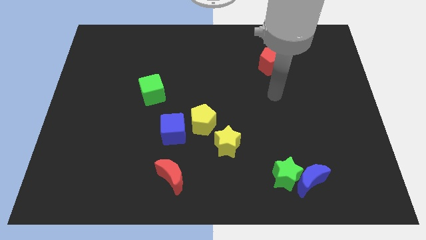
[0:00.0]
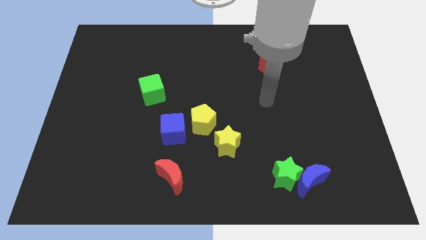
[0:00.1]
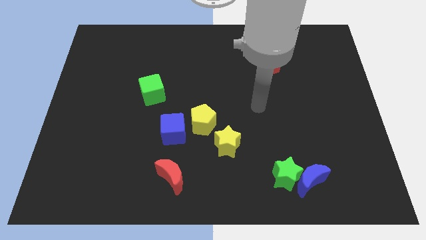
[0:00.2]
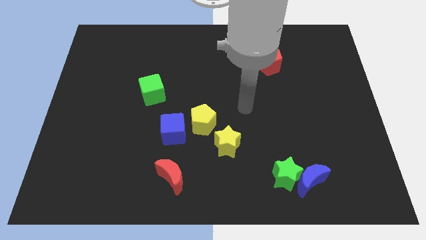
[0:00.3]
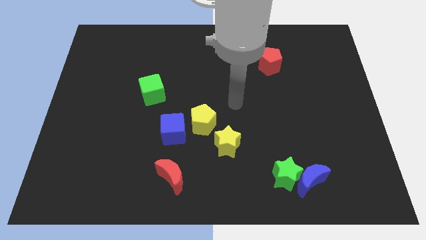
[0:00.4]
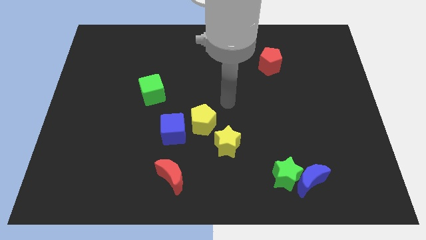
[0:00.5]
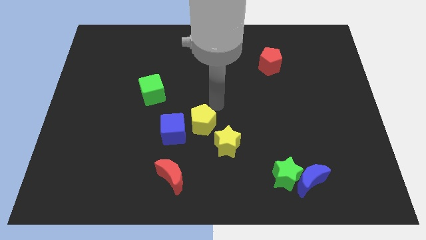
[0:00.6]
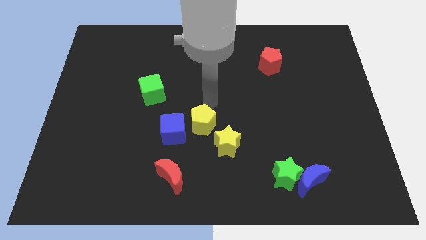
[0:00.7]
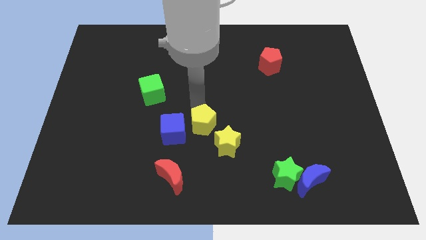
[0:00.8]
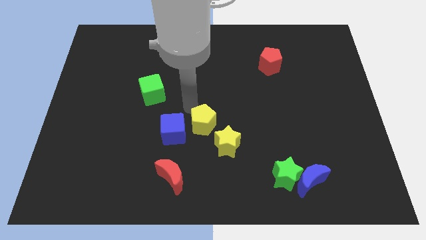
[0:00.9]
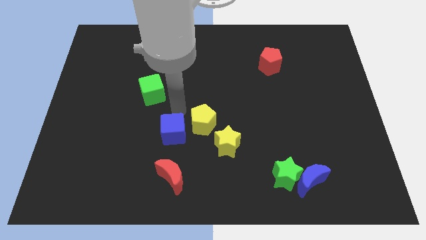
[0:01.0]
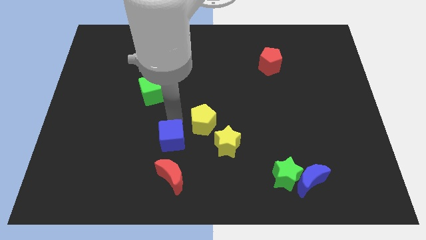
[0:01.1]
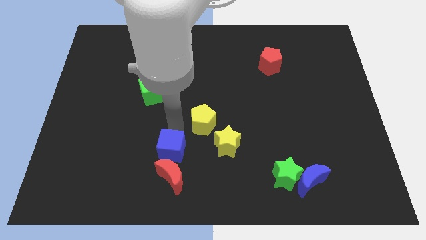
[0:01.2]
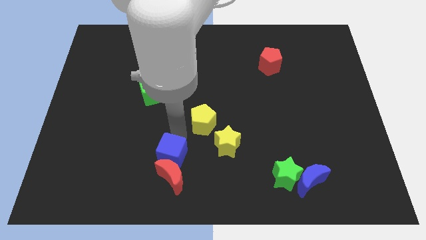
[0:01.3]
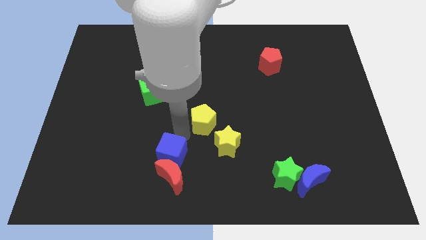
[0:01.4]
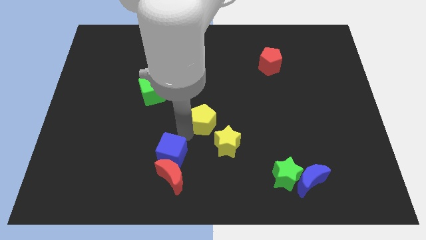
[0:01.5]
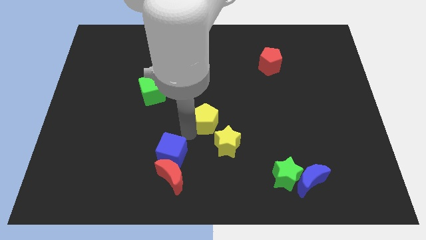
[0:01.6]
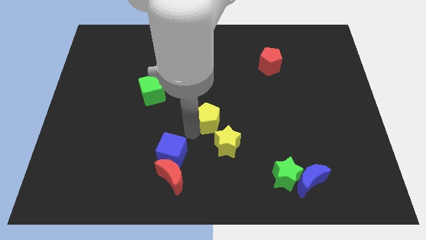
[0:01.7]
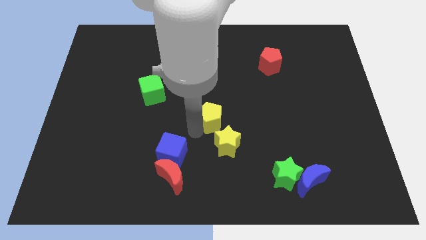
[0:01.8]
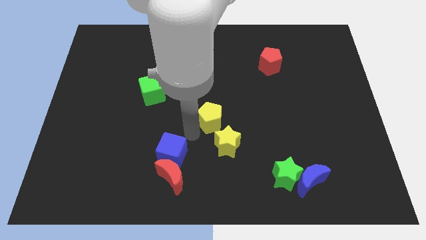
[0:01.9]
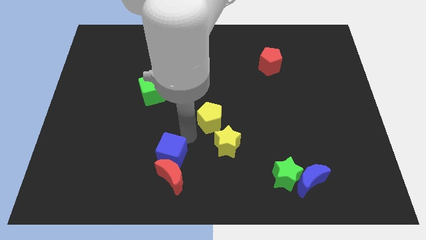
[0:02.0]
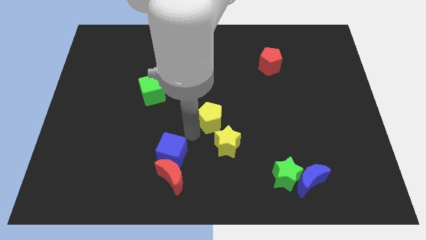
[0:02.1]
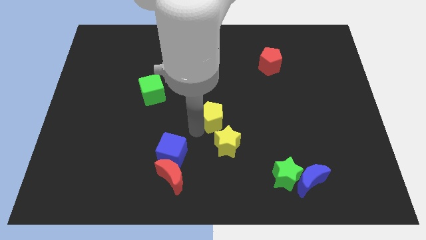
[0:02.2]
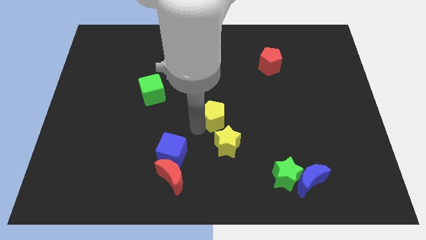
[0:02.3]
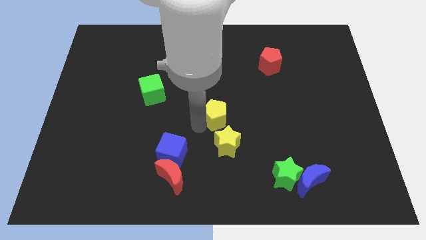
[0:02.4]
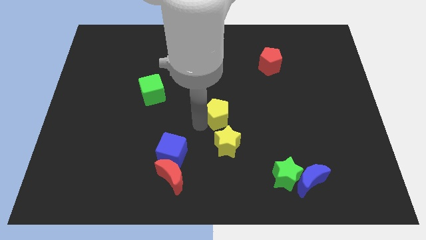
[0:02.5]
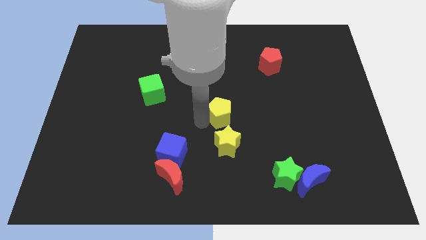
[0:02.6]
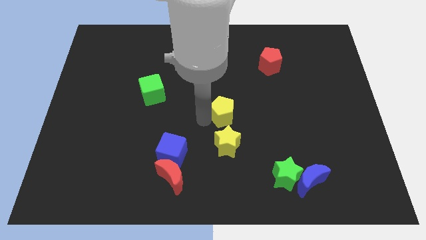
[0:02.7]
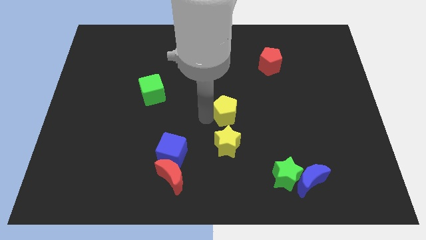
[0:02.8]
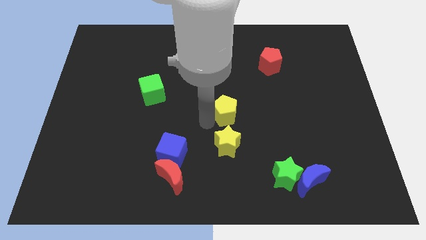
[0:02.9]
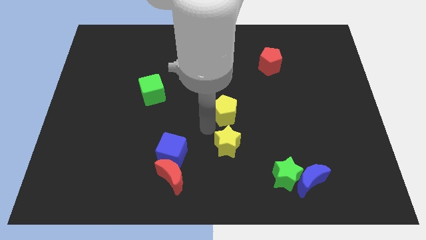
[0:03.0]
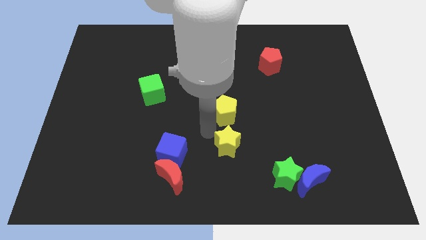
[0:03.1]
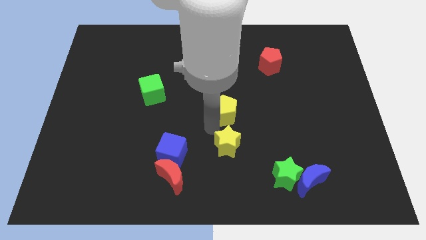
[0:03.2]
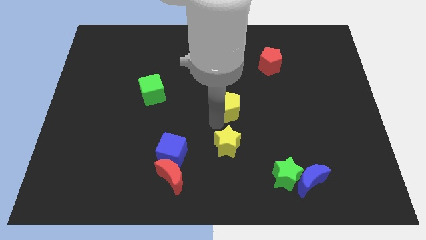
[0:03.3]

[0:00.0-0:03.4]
slide the yellow pentagon a bit upwards and to the right diagonally

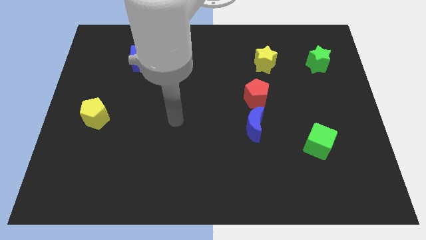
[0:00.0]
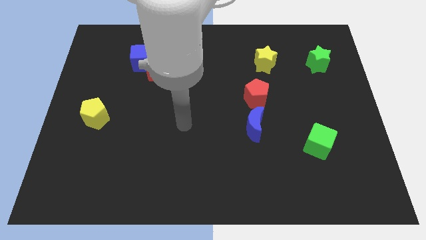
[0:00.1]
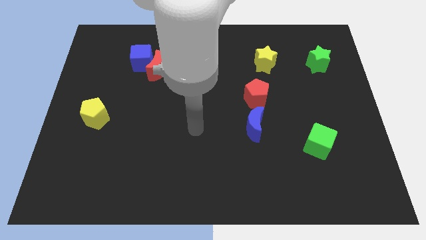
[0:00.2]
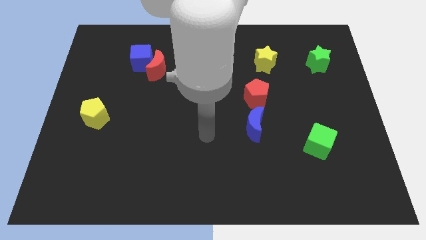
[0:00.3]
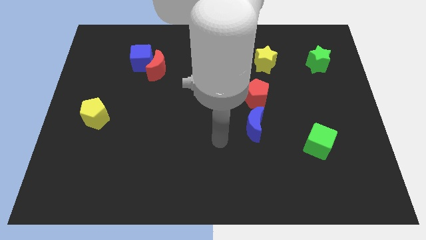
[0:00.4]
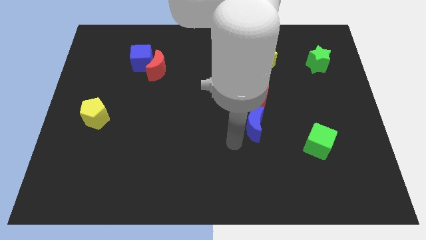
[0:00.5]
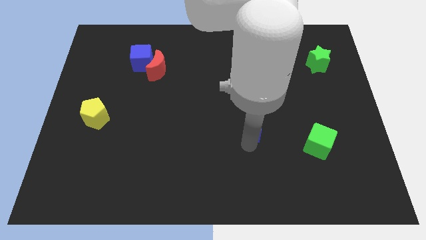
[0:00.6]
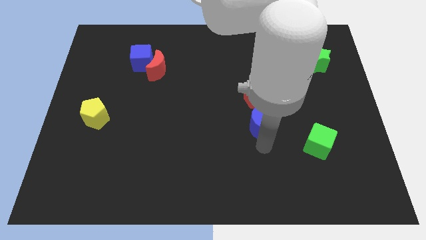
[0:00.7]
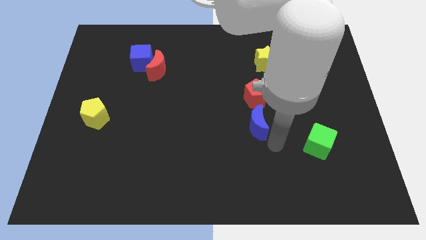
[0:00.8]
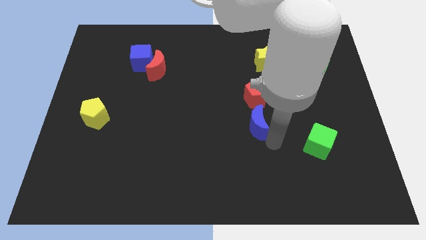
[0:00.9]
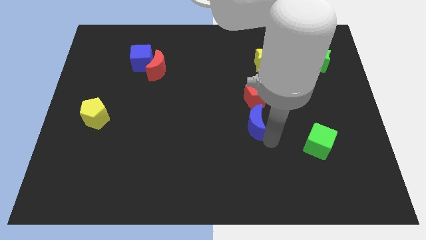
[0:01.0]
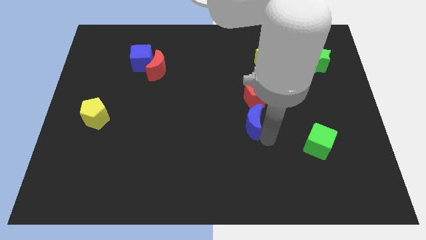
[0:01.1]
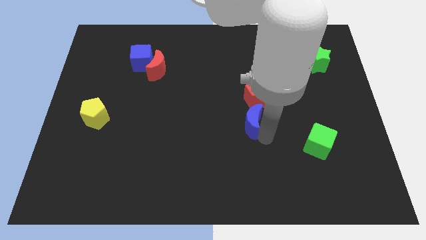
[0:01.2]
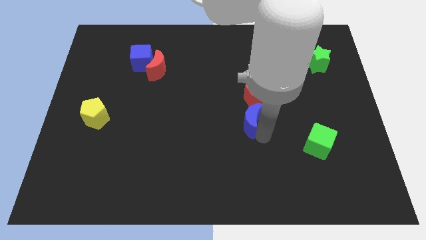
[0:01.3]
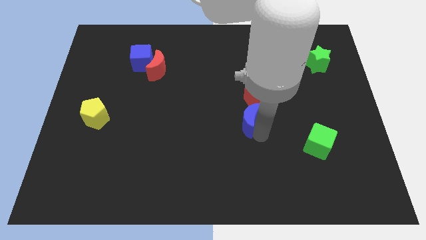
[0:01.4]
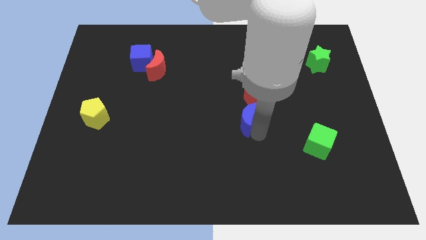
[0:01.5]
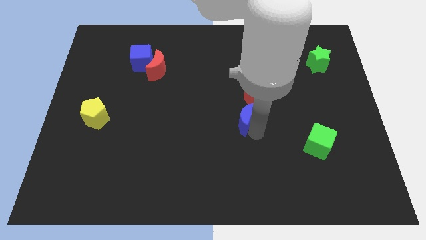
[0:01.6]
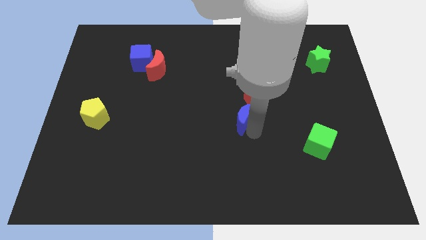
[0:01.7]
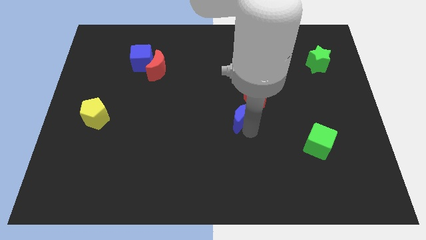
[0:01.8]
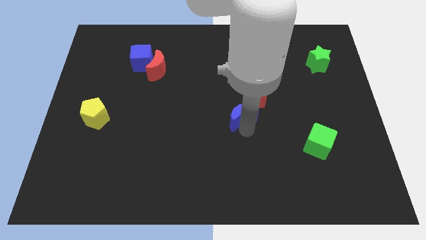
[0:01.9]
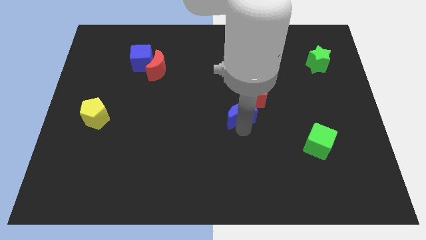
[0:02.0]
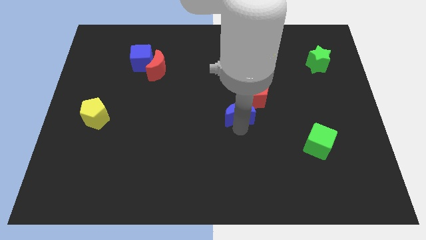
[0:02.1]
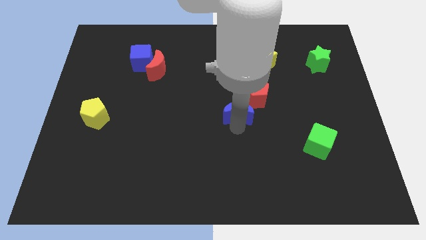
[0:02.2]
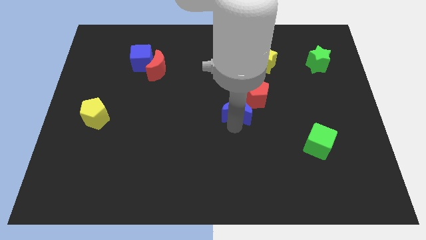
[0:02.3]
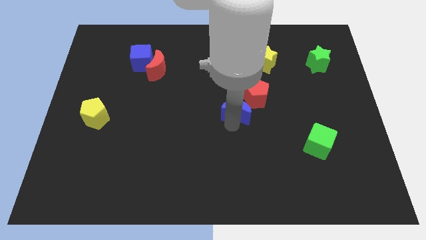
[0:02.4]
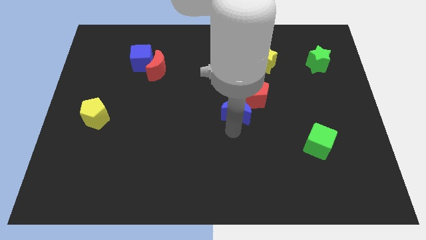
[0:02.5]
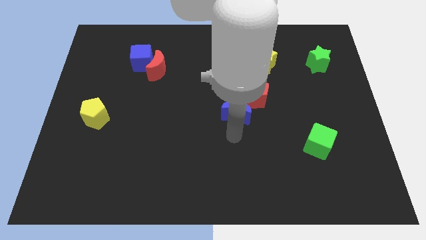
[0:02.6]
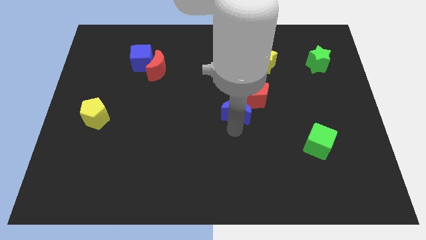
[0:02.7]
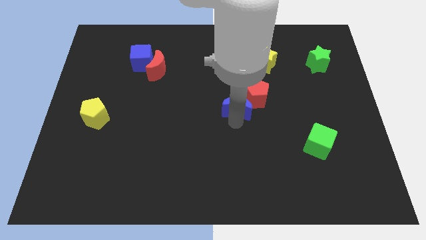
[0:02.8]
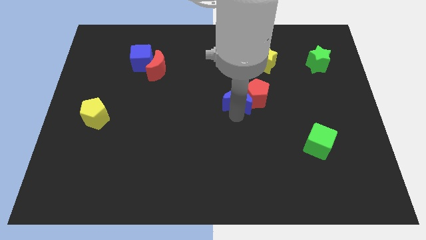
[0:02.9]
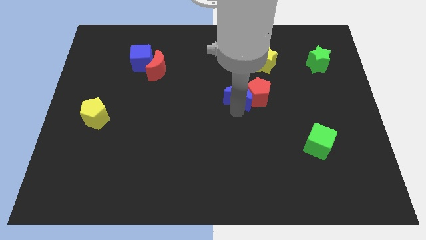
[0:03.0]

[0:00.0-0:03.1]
push the blue moon upwards a little

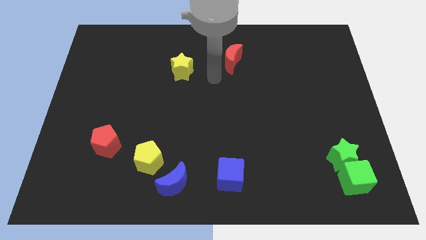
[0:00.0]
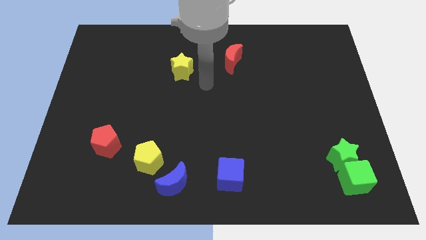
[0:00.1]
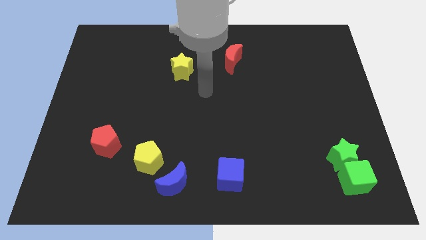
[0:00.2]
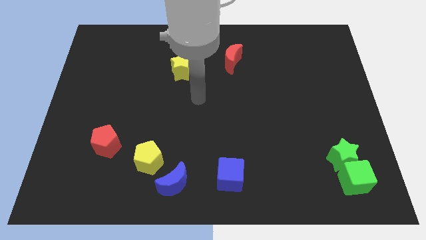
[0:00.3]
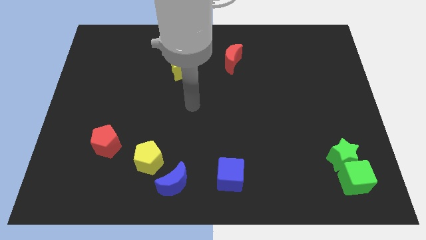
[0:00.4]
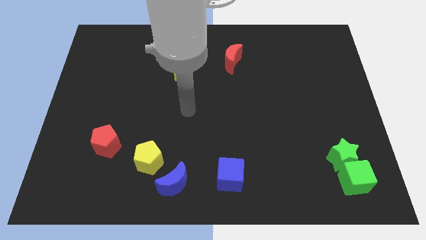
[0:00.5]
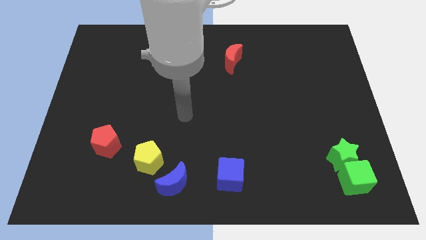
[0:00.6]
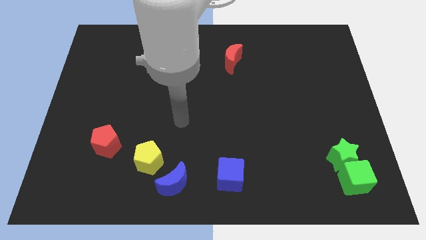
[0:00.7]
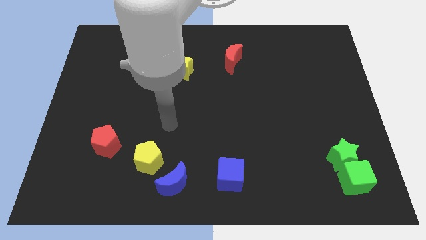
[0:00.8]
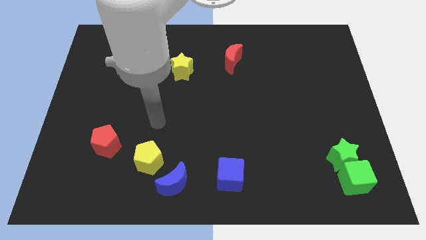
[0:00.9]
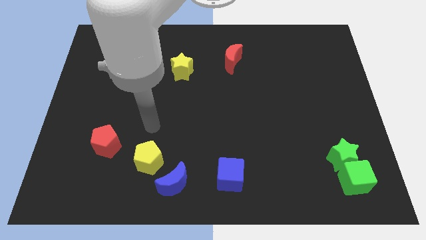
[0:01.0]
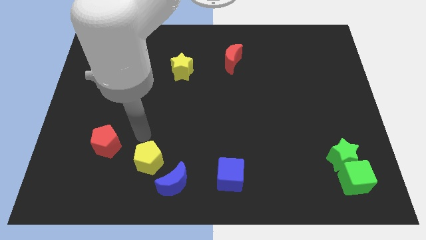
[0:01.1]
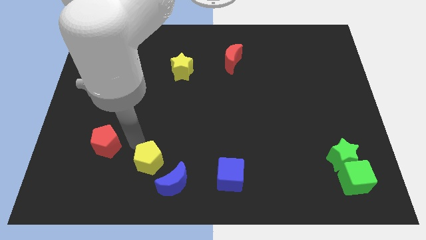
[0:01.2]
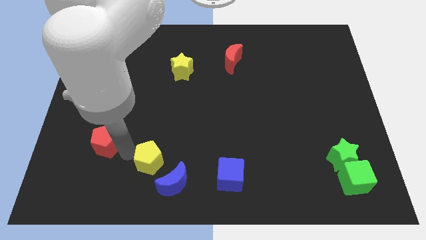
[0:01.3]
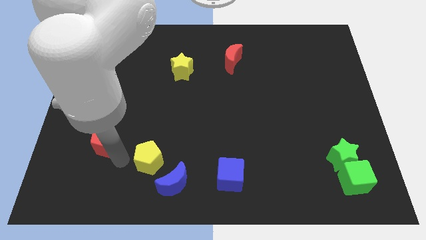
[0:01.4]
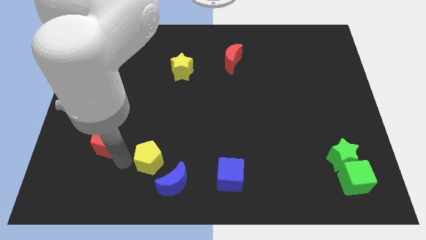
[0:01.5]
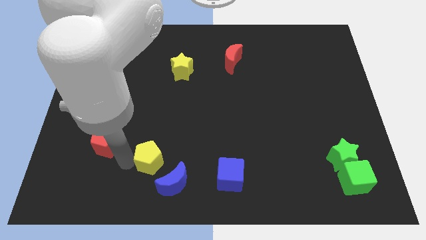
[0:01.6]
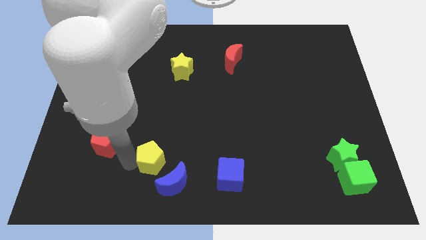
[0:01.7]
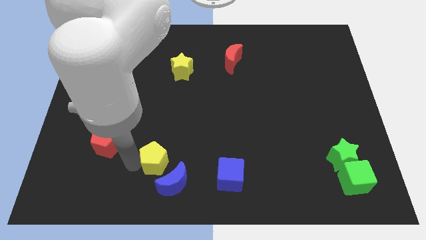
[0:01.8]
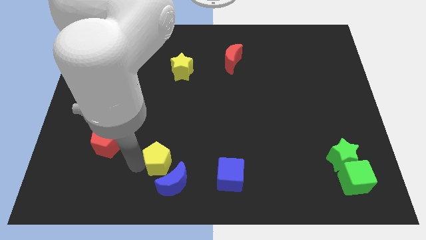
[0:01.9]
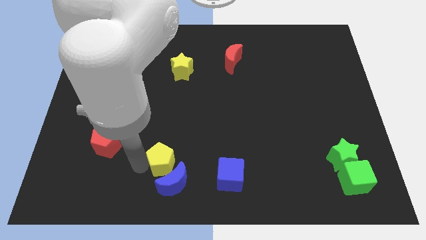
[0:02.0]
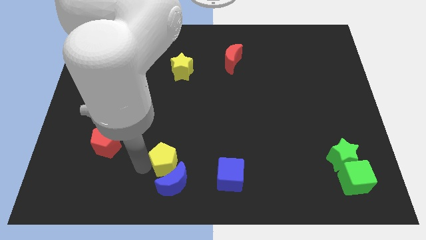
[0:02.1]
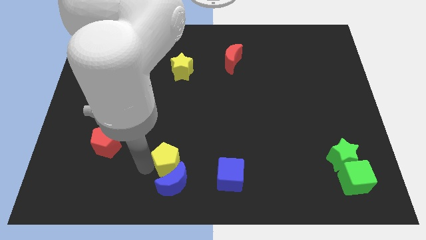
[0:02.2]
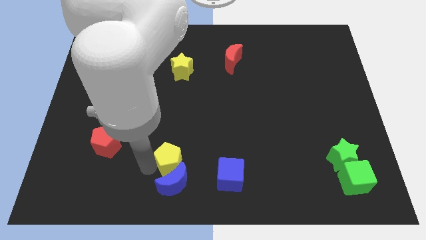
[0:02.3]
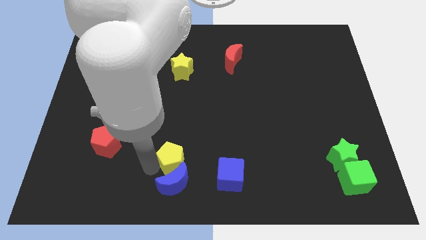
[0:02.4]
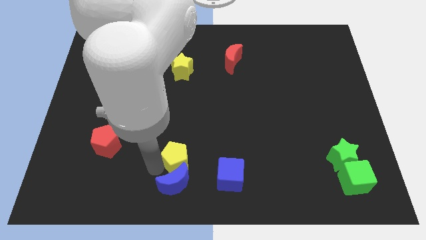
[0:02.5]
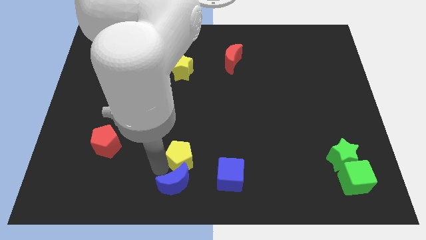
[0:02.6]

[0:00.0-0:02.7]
push the yellow pentagon to the right slightly
